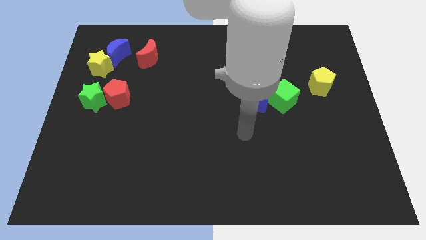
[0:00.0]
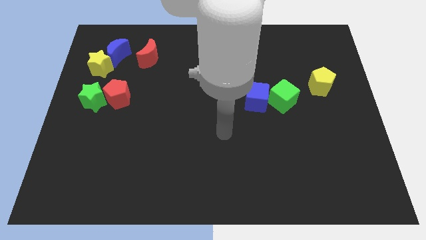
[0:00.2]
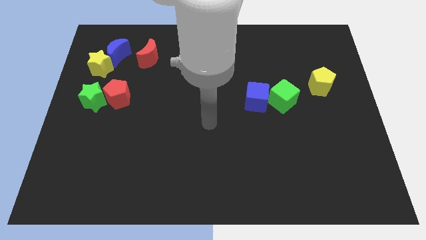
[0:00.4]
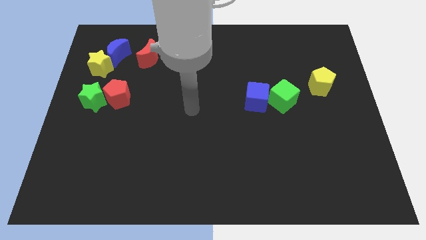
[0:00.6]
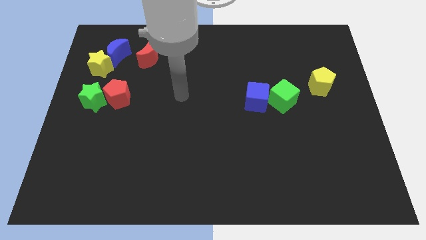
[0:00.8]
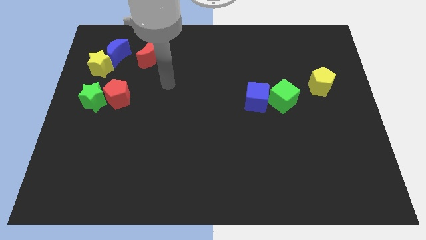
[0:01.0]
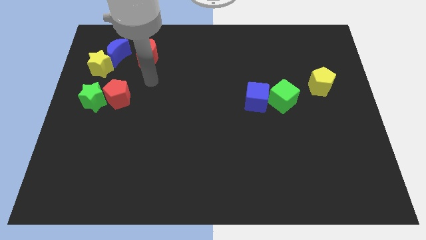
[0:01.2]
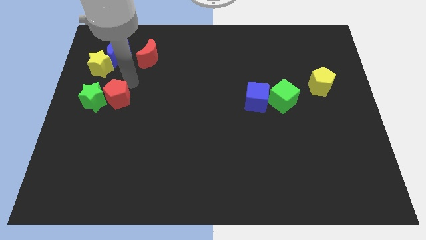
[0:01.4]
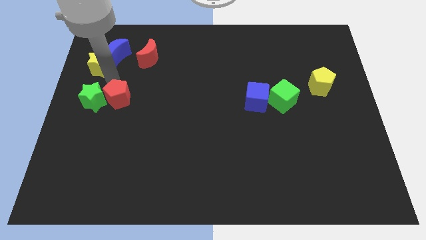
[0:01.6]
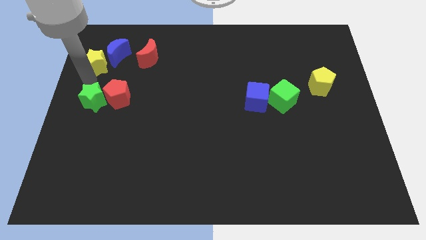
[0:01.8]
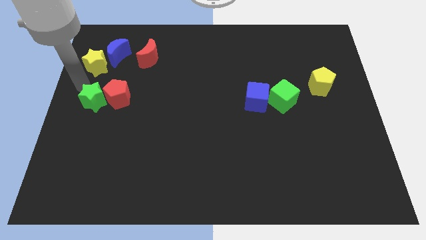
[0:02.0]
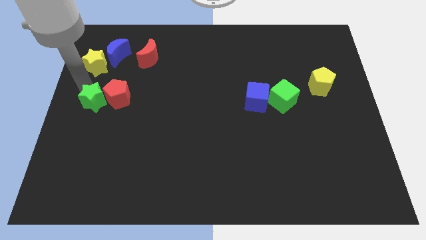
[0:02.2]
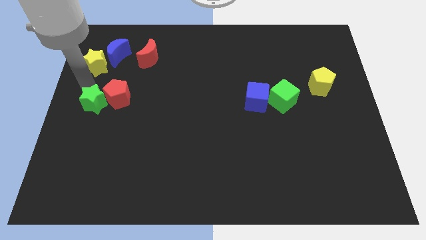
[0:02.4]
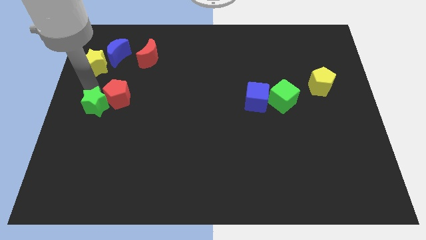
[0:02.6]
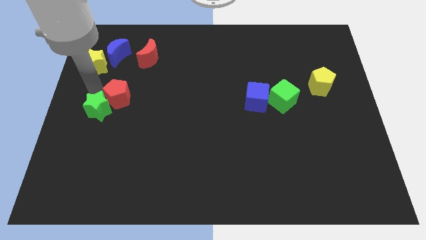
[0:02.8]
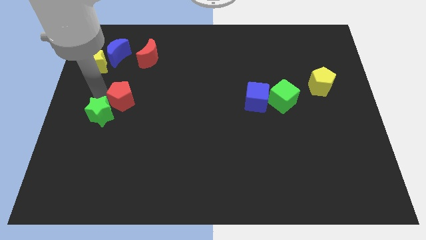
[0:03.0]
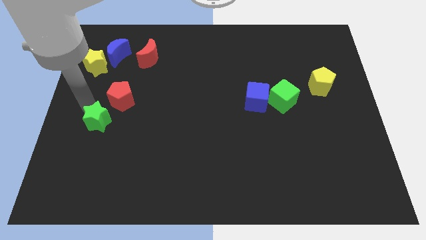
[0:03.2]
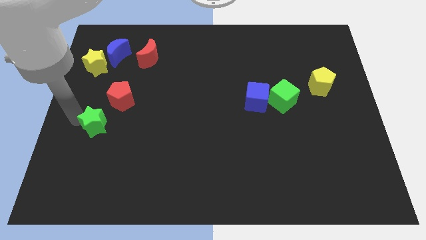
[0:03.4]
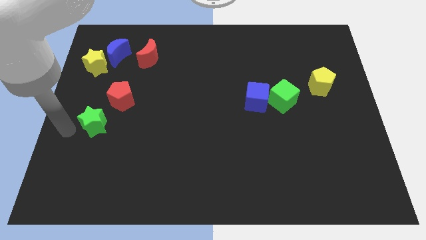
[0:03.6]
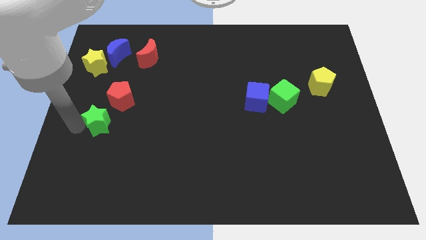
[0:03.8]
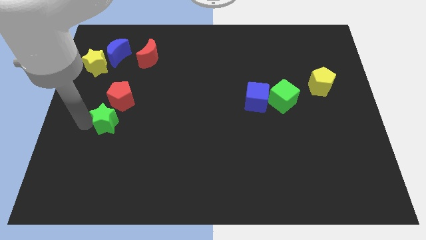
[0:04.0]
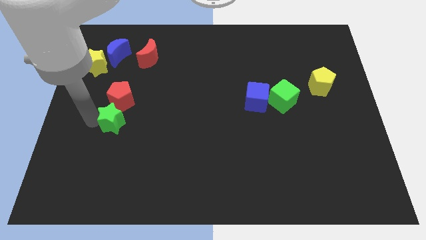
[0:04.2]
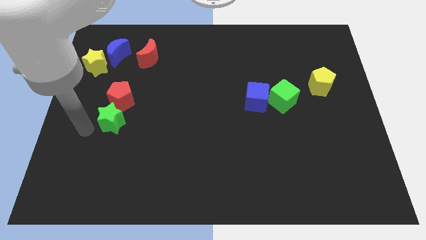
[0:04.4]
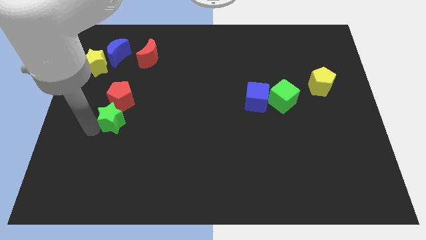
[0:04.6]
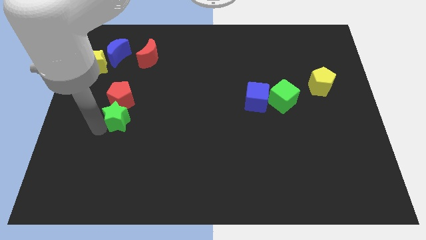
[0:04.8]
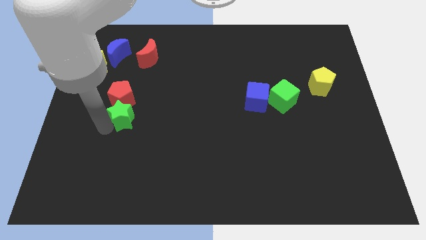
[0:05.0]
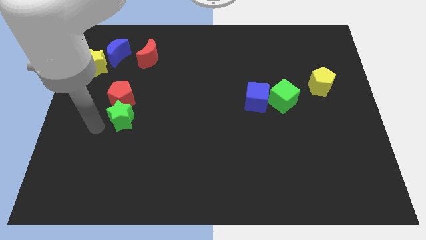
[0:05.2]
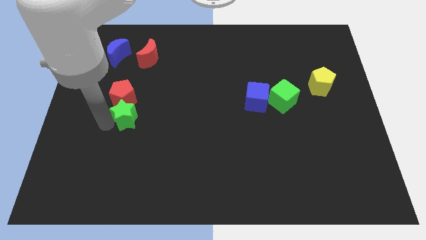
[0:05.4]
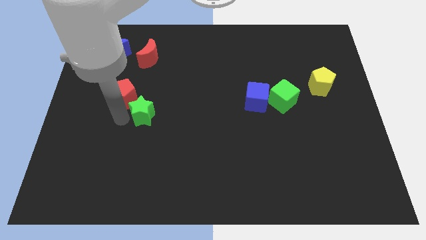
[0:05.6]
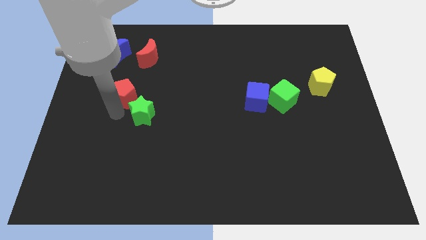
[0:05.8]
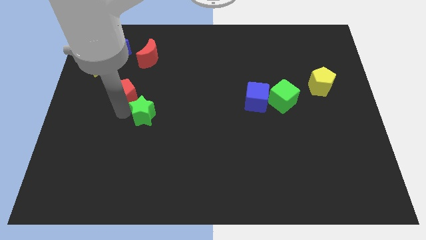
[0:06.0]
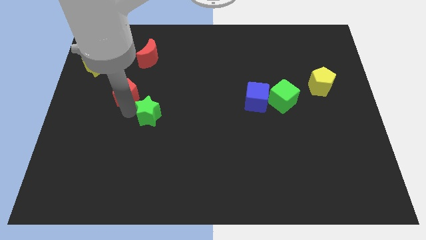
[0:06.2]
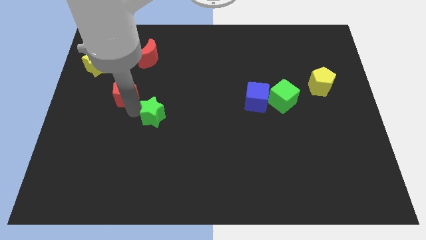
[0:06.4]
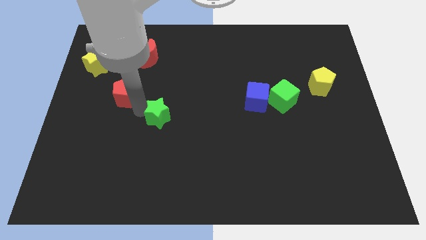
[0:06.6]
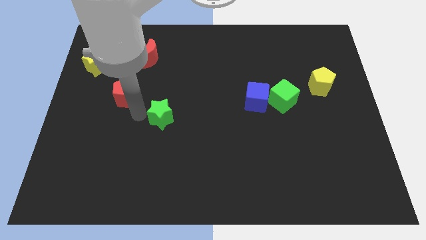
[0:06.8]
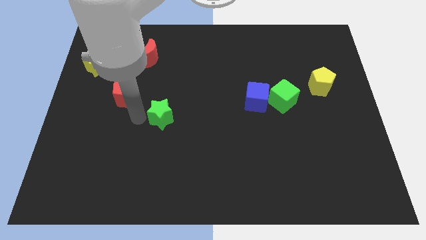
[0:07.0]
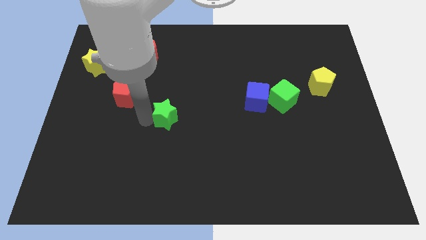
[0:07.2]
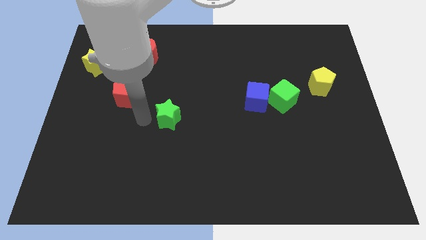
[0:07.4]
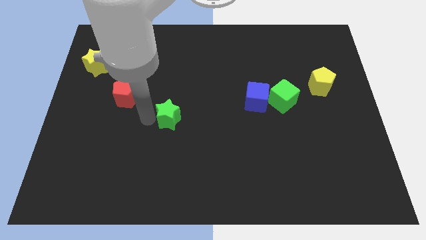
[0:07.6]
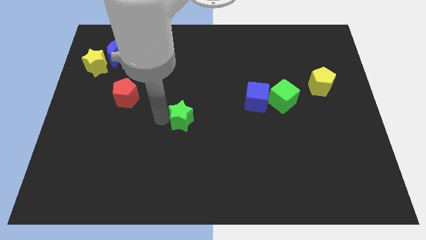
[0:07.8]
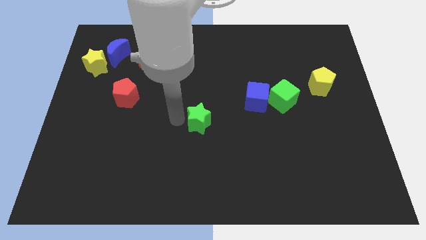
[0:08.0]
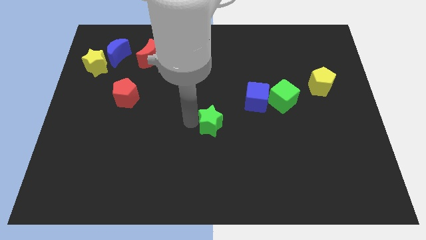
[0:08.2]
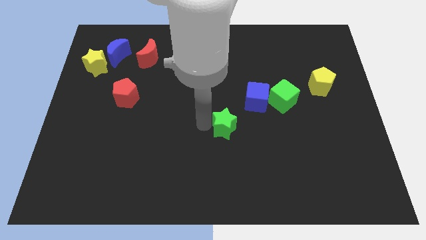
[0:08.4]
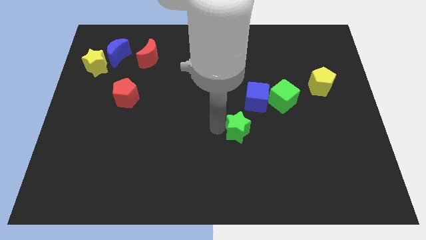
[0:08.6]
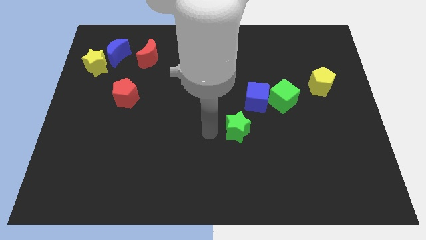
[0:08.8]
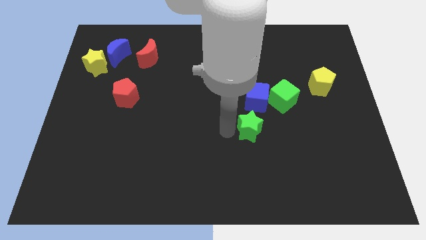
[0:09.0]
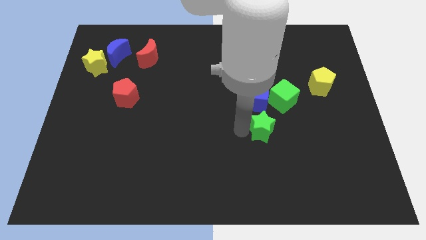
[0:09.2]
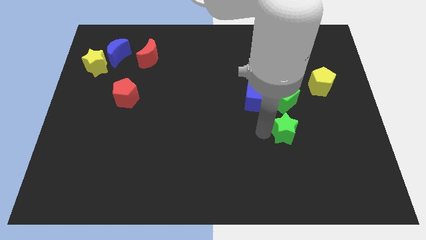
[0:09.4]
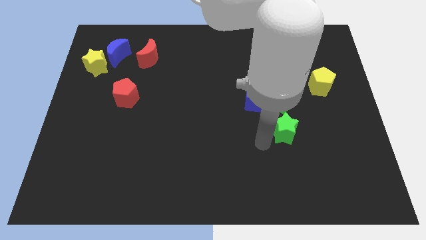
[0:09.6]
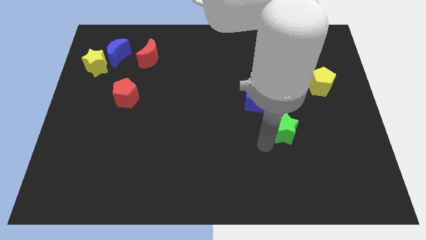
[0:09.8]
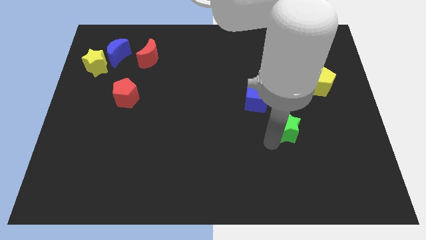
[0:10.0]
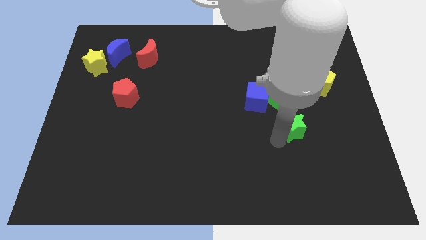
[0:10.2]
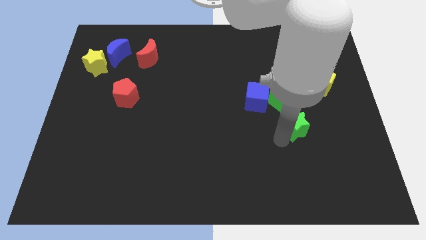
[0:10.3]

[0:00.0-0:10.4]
slide the green star to the bottom right side of the green cube

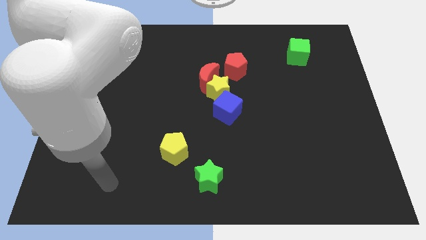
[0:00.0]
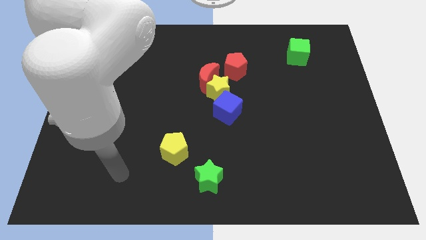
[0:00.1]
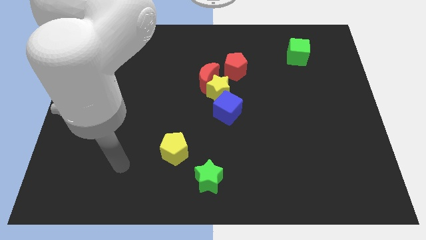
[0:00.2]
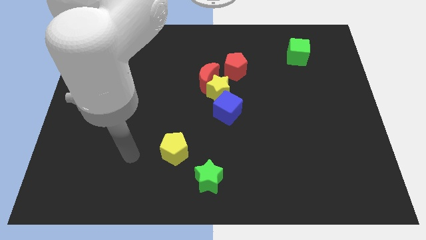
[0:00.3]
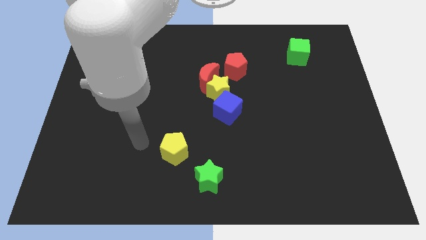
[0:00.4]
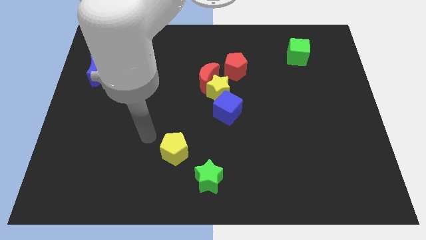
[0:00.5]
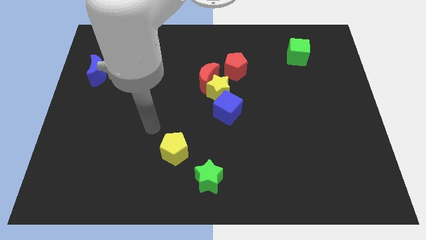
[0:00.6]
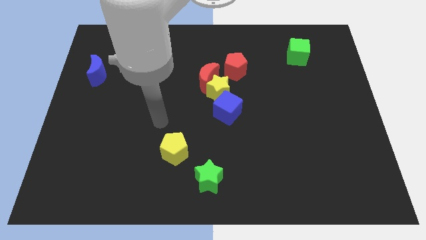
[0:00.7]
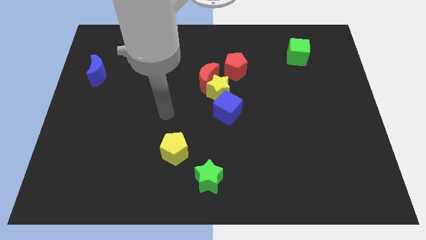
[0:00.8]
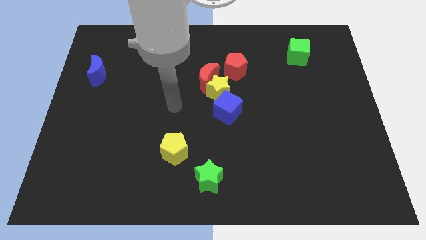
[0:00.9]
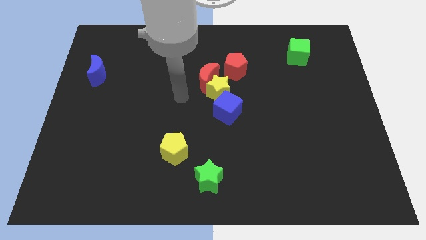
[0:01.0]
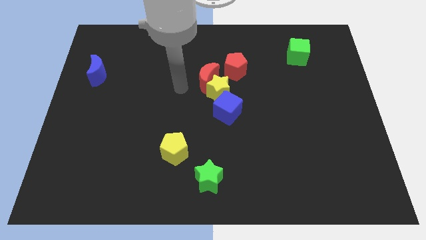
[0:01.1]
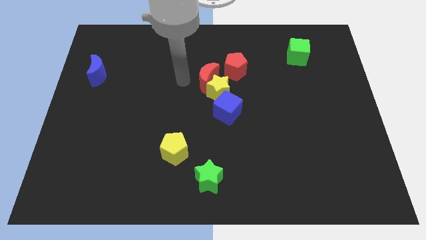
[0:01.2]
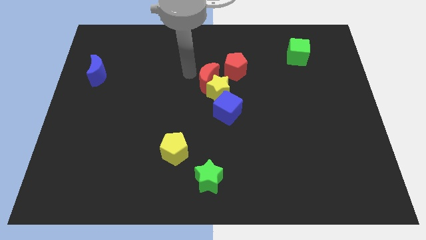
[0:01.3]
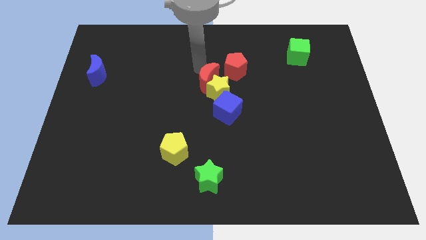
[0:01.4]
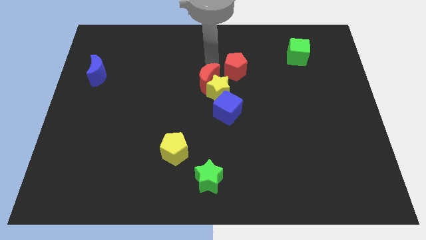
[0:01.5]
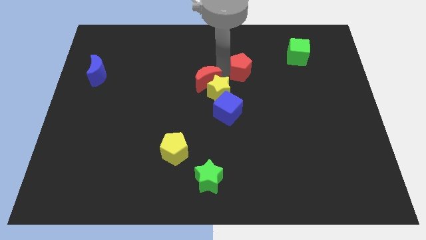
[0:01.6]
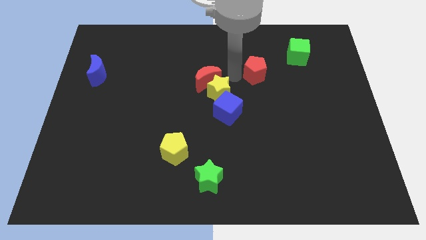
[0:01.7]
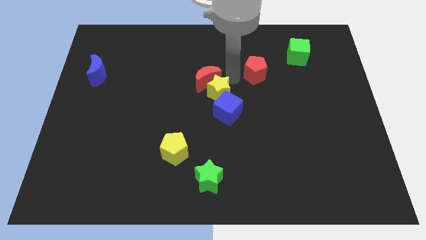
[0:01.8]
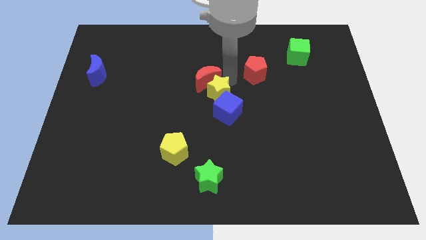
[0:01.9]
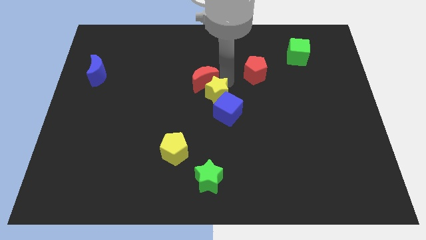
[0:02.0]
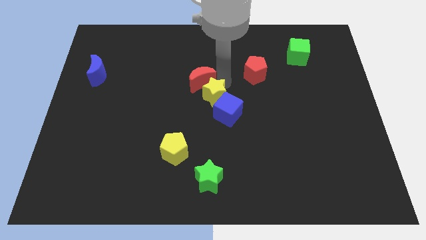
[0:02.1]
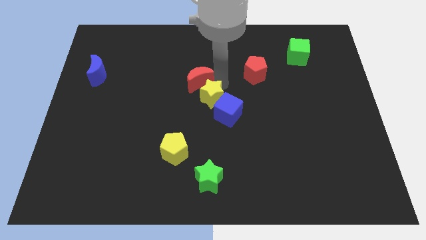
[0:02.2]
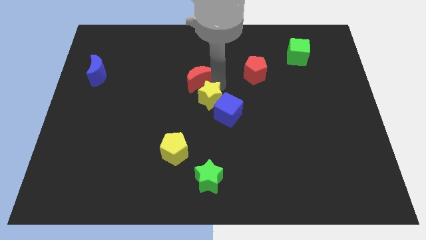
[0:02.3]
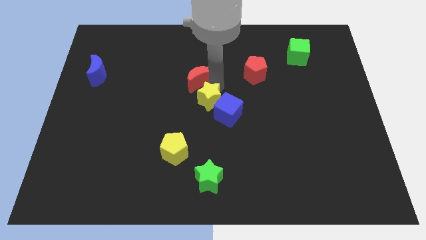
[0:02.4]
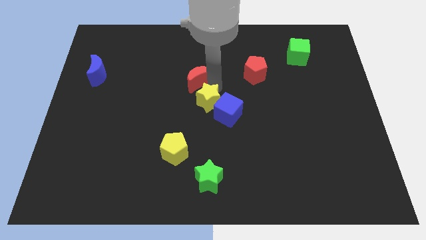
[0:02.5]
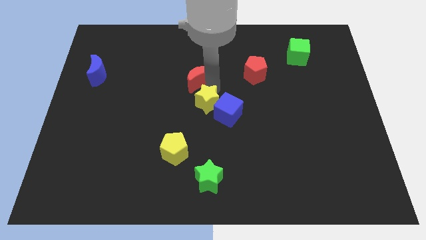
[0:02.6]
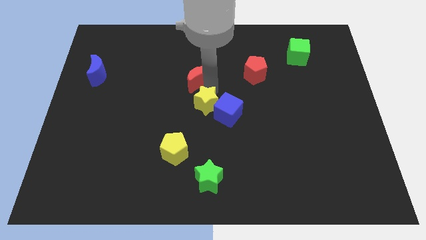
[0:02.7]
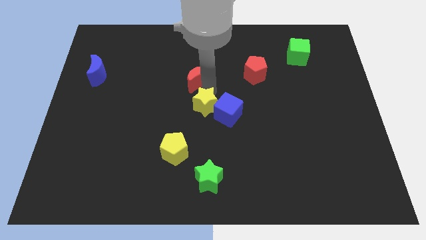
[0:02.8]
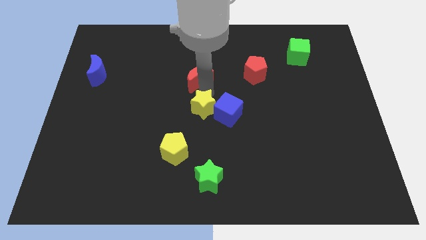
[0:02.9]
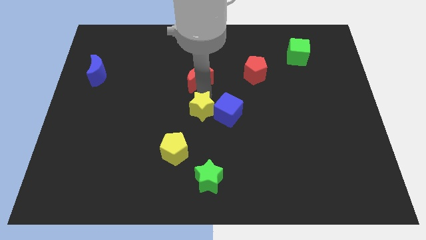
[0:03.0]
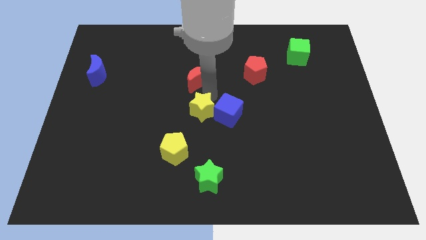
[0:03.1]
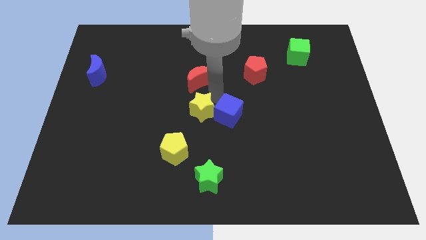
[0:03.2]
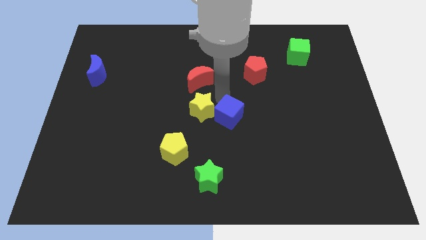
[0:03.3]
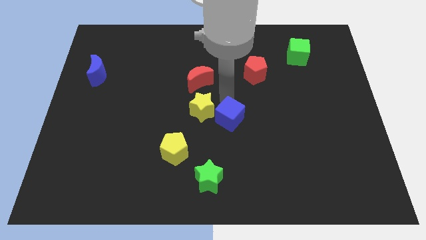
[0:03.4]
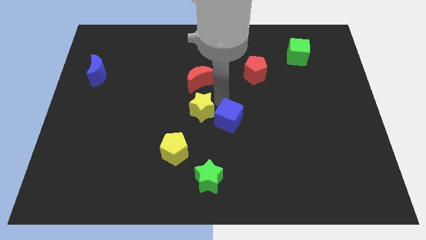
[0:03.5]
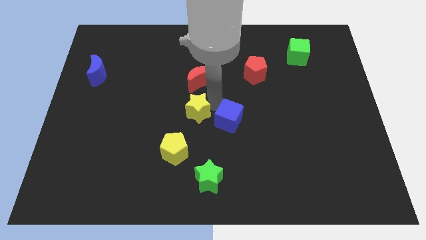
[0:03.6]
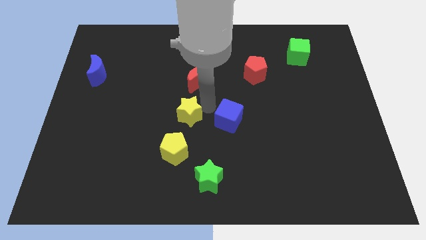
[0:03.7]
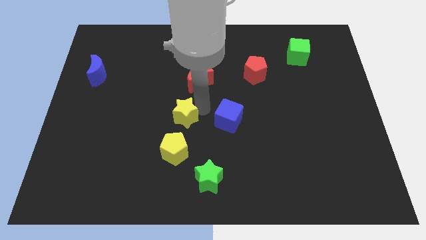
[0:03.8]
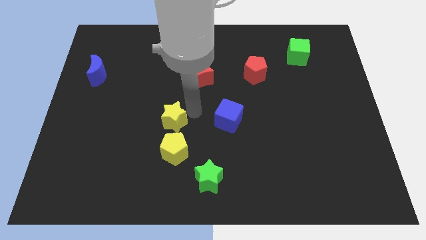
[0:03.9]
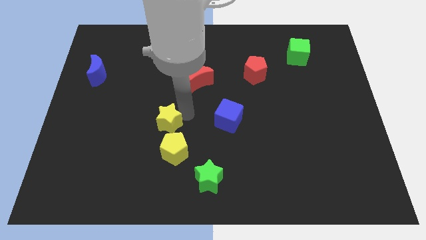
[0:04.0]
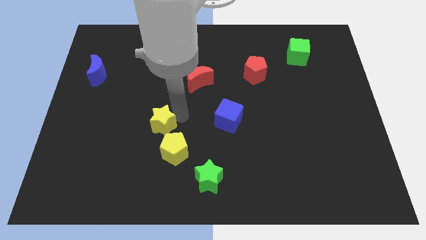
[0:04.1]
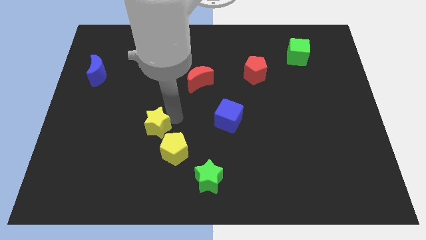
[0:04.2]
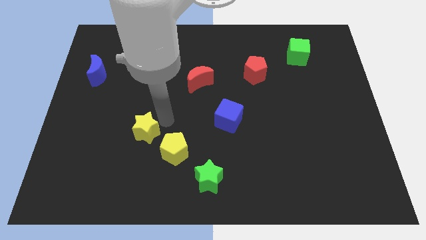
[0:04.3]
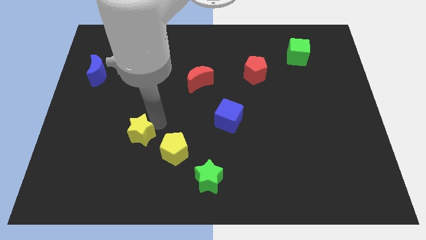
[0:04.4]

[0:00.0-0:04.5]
slide the yellow star to the left of the yellow pentagon
